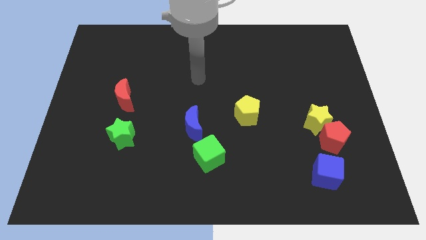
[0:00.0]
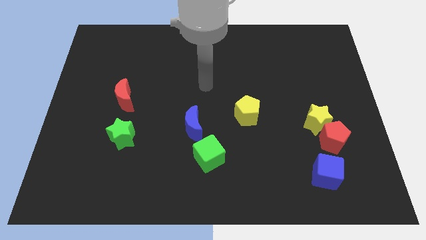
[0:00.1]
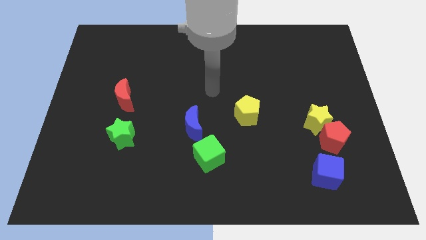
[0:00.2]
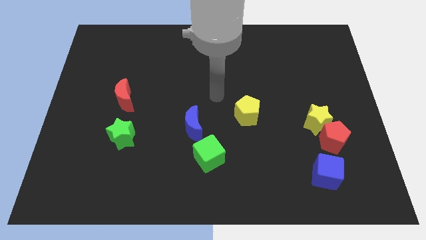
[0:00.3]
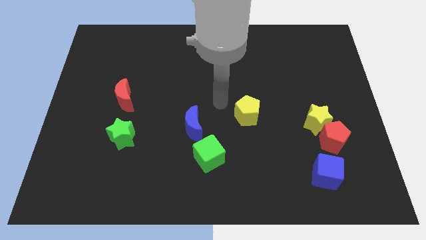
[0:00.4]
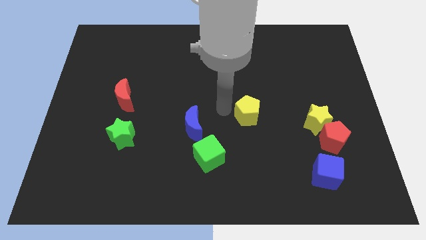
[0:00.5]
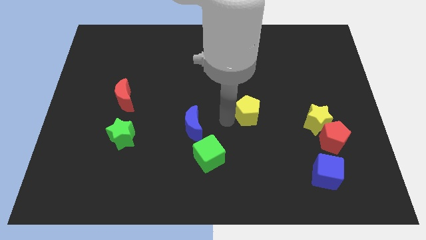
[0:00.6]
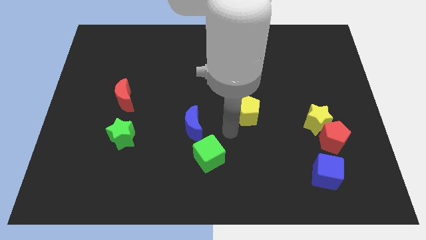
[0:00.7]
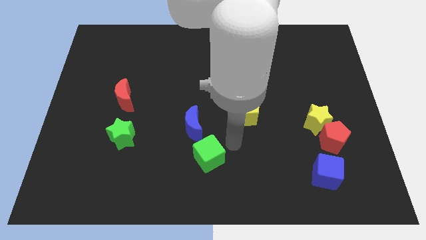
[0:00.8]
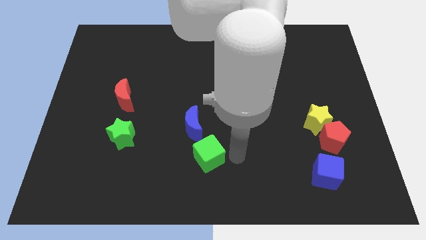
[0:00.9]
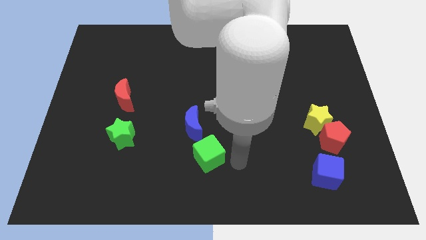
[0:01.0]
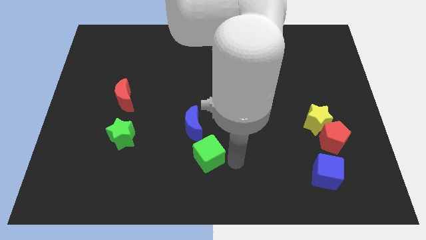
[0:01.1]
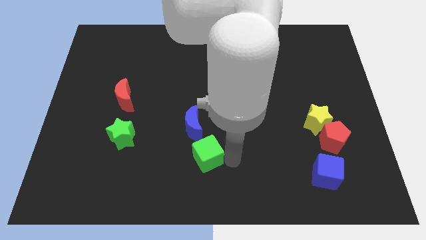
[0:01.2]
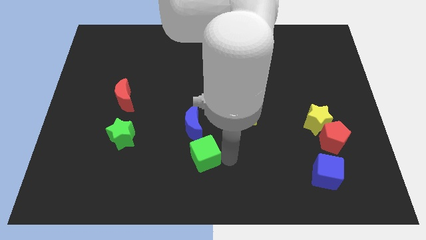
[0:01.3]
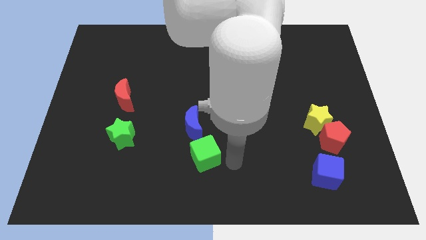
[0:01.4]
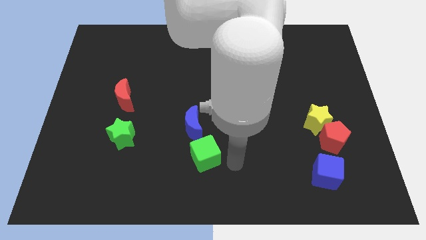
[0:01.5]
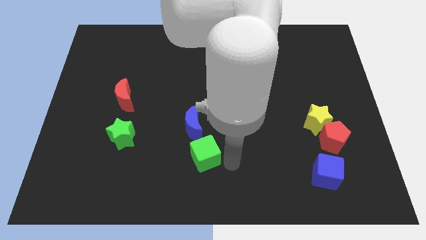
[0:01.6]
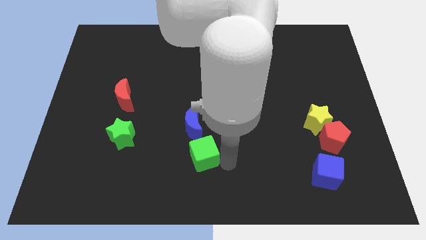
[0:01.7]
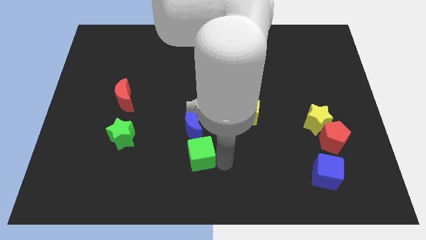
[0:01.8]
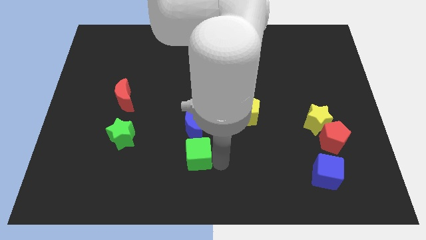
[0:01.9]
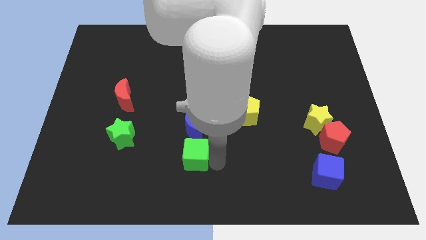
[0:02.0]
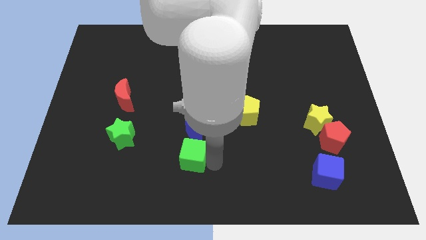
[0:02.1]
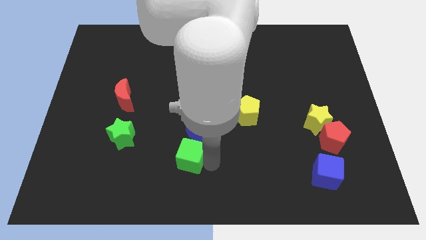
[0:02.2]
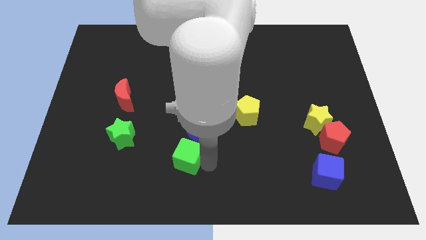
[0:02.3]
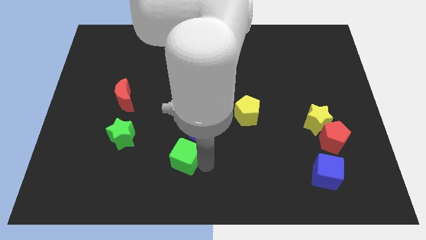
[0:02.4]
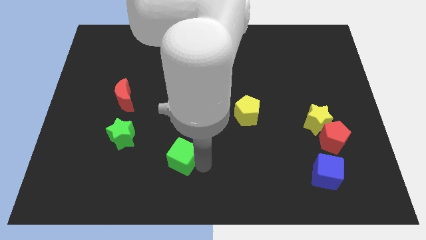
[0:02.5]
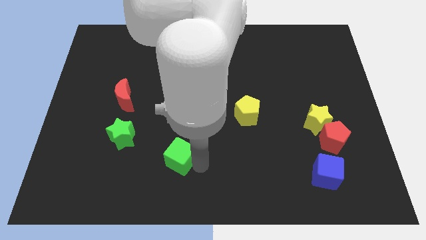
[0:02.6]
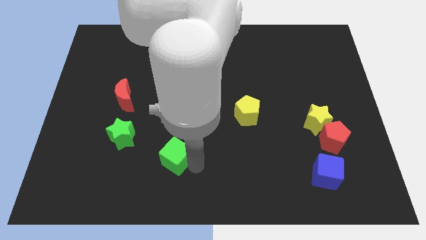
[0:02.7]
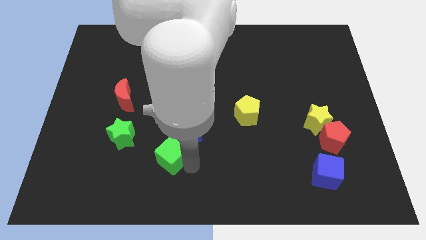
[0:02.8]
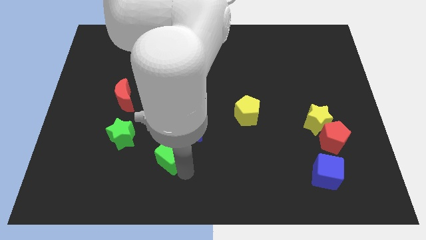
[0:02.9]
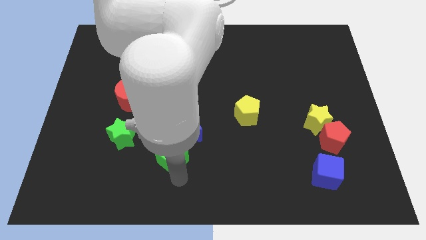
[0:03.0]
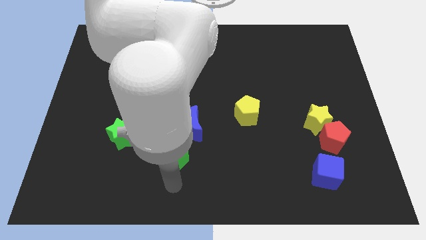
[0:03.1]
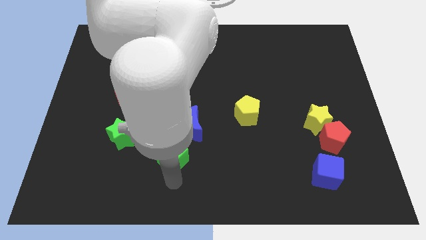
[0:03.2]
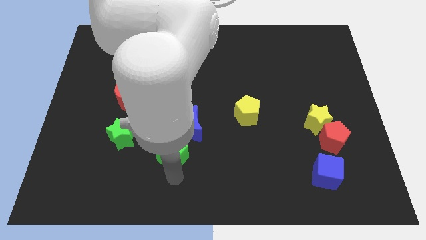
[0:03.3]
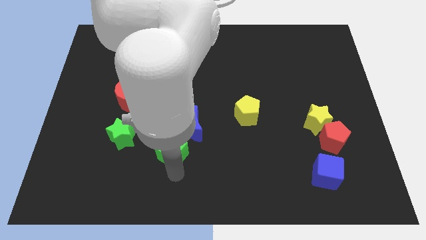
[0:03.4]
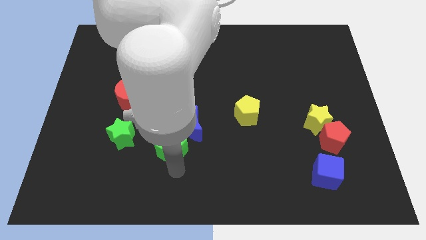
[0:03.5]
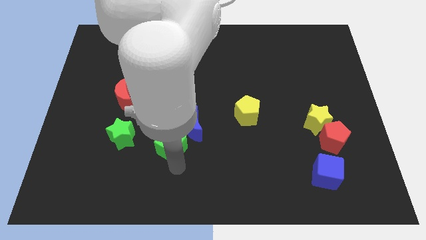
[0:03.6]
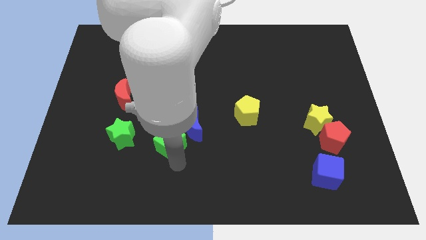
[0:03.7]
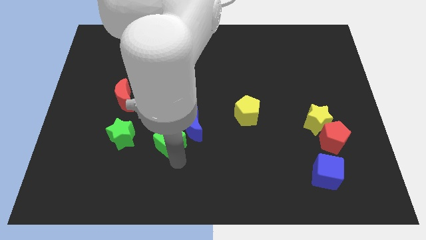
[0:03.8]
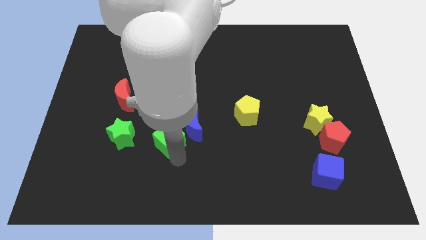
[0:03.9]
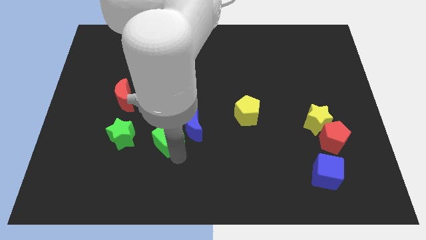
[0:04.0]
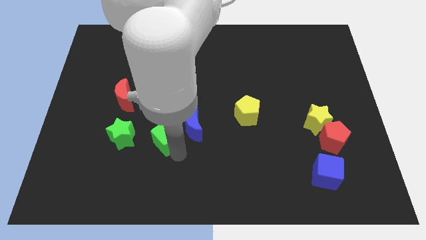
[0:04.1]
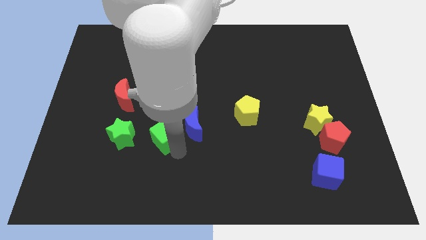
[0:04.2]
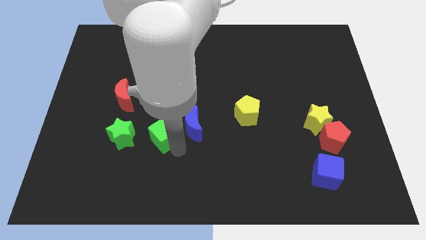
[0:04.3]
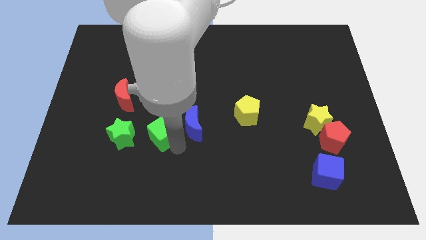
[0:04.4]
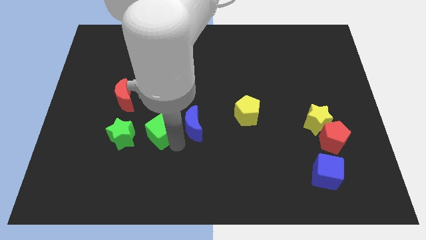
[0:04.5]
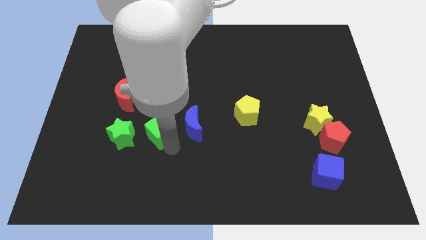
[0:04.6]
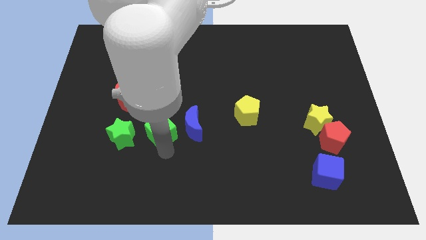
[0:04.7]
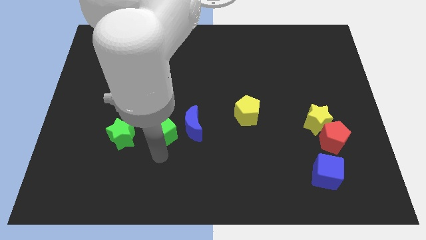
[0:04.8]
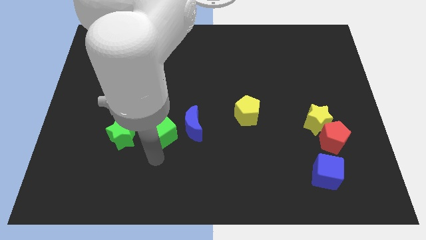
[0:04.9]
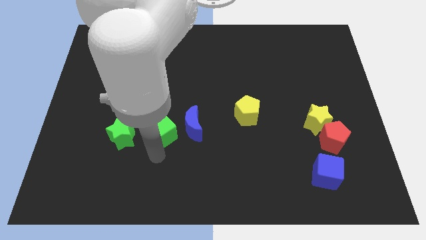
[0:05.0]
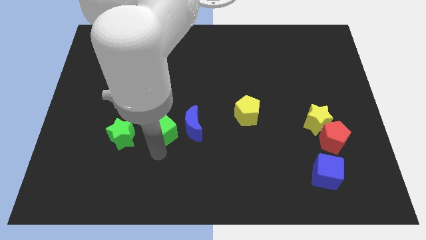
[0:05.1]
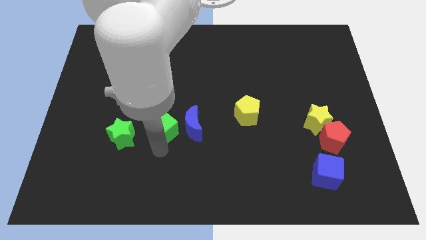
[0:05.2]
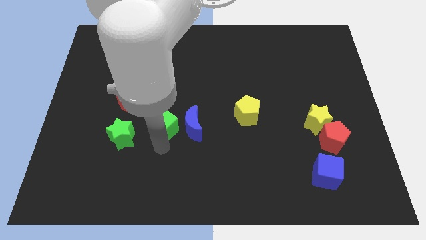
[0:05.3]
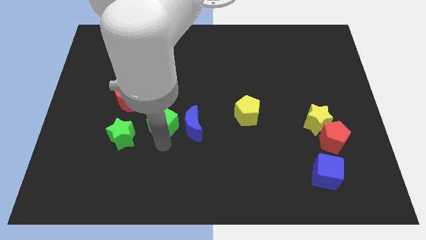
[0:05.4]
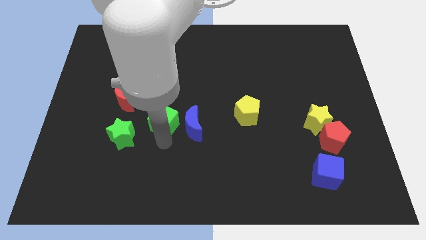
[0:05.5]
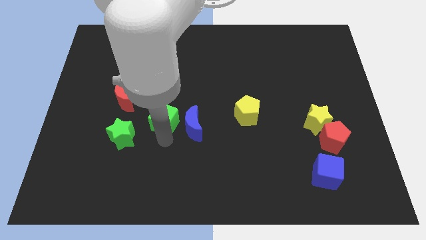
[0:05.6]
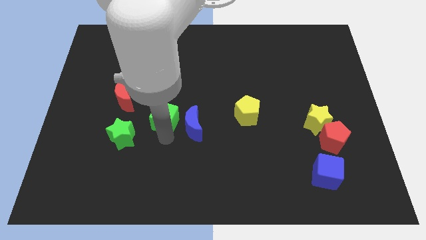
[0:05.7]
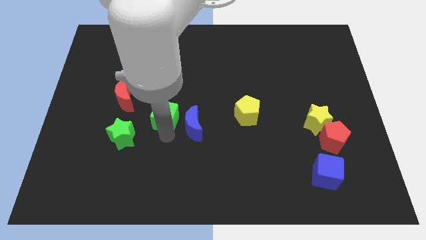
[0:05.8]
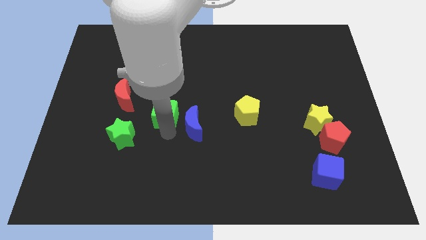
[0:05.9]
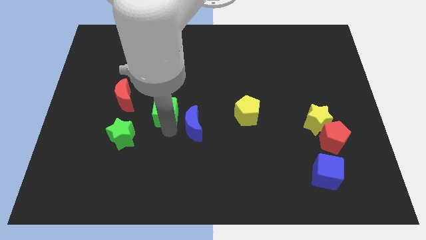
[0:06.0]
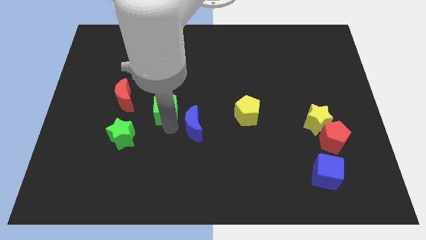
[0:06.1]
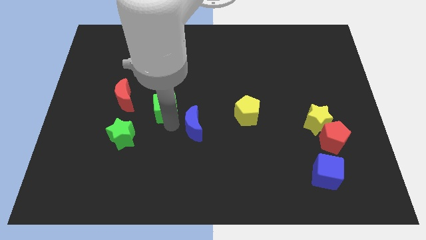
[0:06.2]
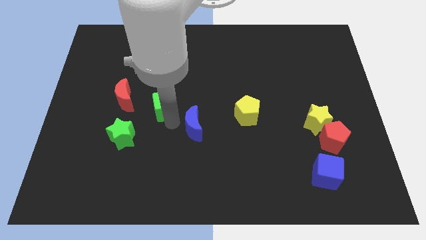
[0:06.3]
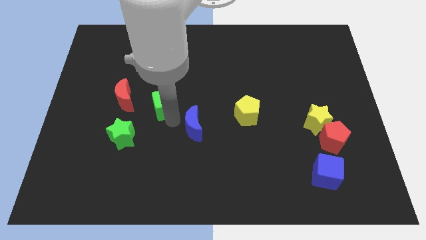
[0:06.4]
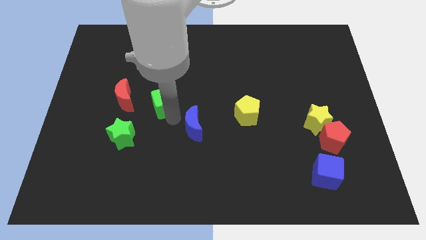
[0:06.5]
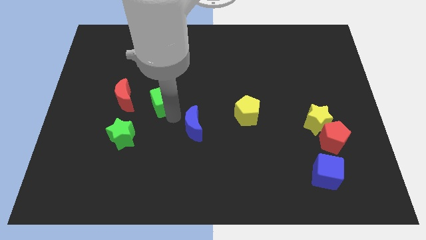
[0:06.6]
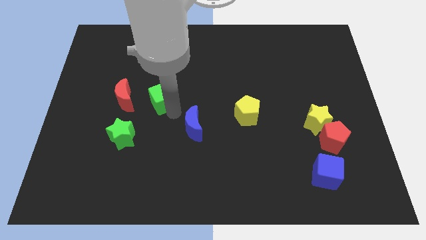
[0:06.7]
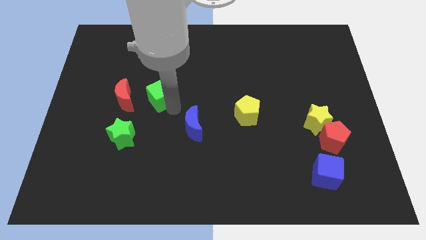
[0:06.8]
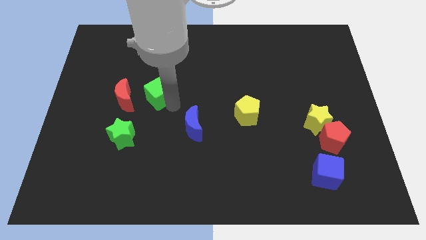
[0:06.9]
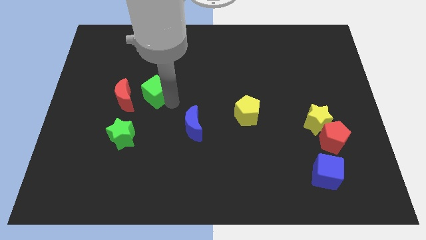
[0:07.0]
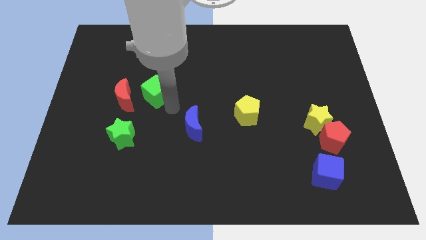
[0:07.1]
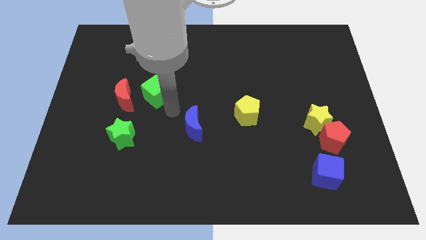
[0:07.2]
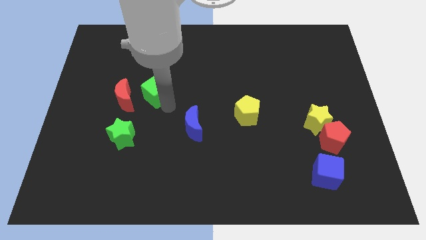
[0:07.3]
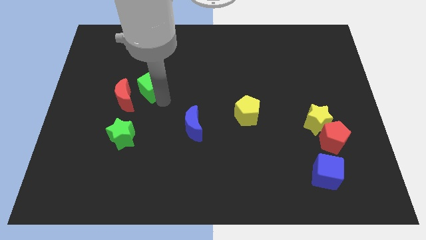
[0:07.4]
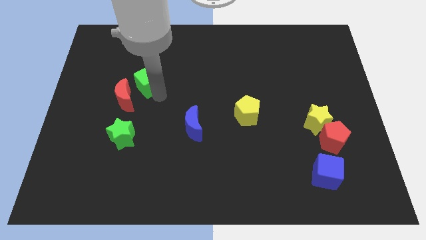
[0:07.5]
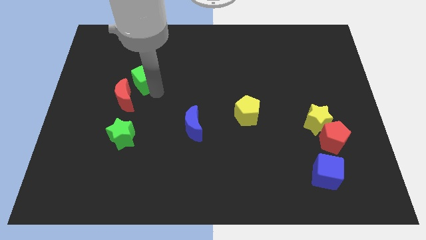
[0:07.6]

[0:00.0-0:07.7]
push the green cube to the top of the red moon
